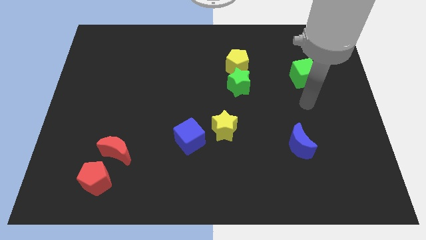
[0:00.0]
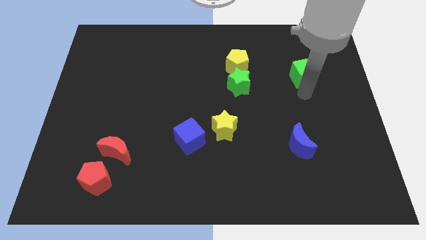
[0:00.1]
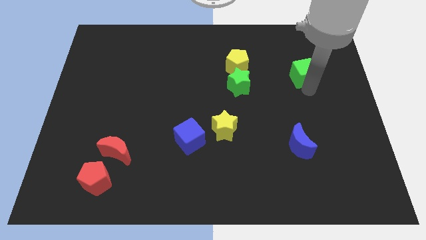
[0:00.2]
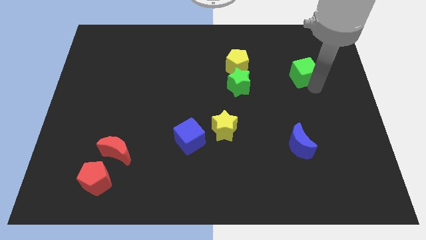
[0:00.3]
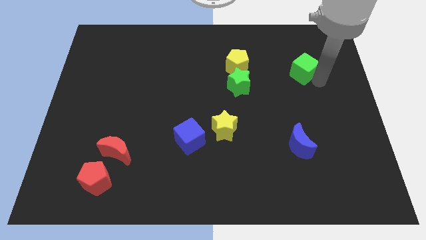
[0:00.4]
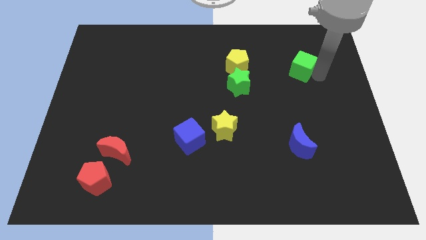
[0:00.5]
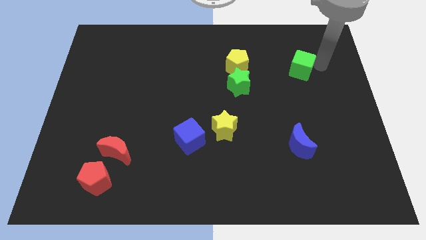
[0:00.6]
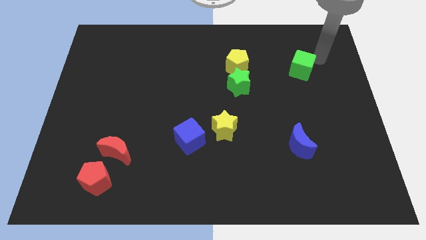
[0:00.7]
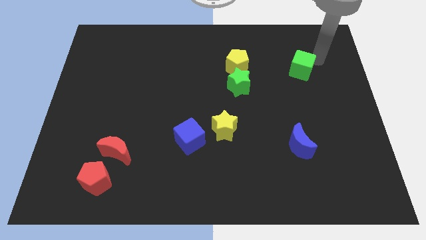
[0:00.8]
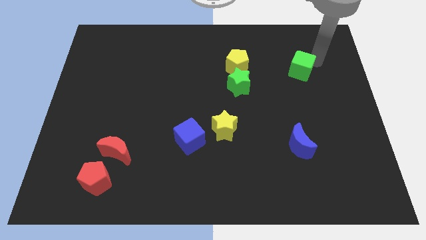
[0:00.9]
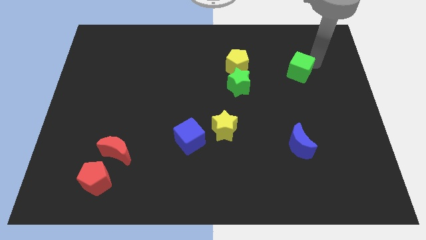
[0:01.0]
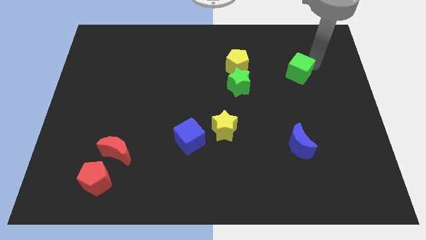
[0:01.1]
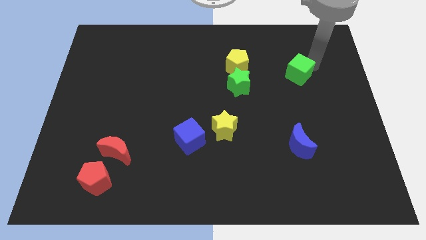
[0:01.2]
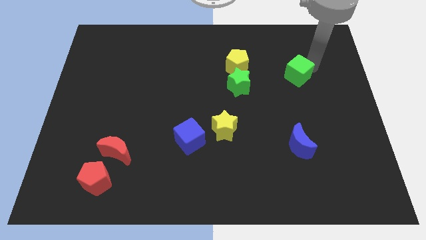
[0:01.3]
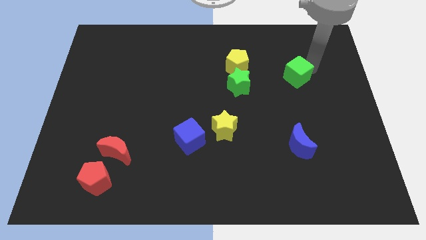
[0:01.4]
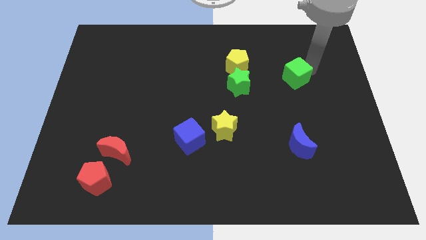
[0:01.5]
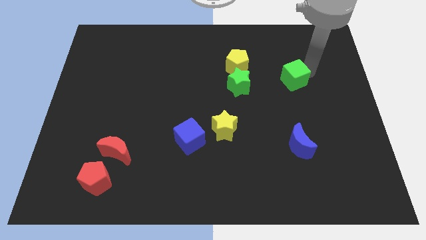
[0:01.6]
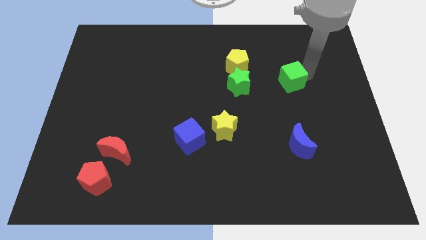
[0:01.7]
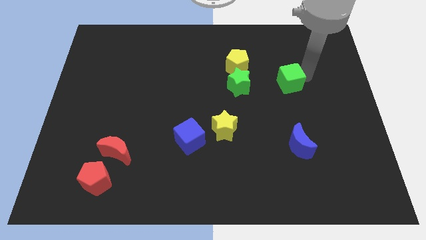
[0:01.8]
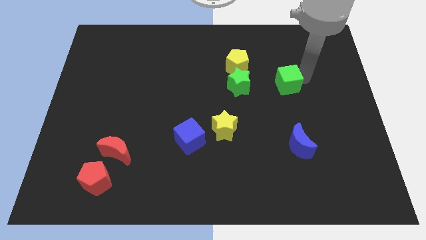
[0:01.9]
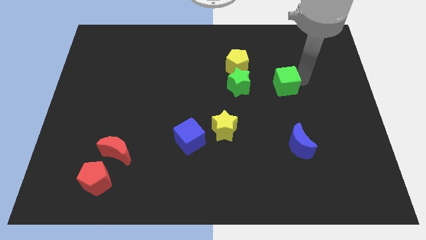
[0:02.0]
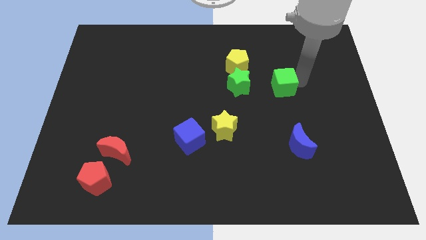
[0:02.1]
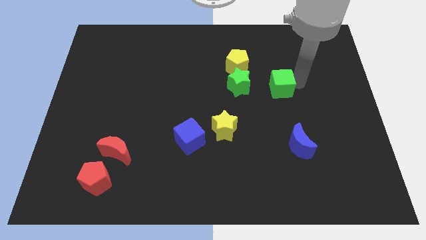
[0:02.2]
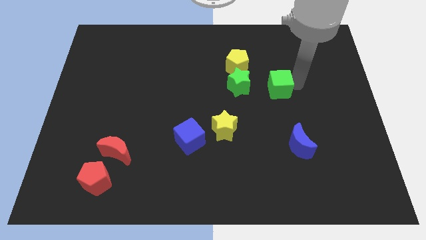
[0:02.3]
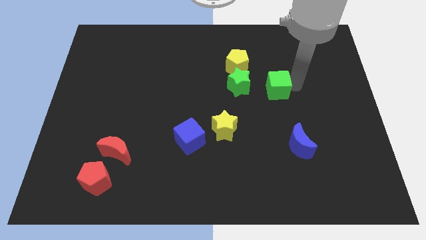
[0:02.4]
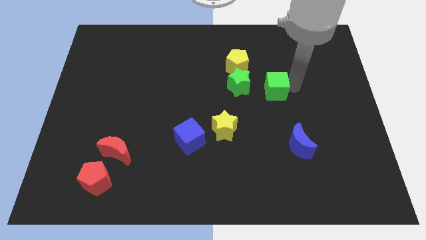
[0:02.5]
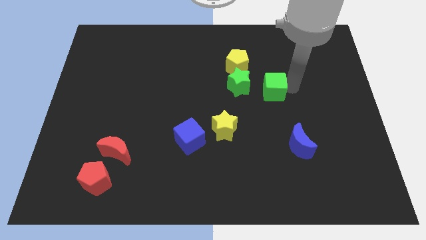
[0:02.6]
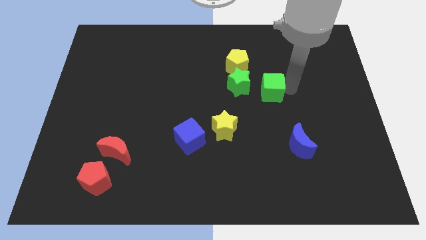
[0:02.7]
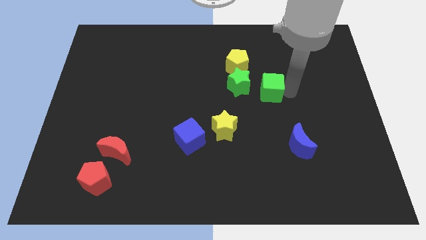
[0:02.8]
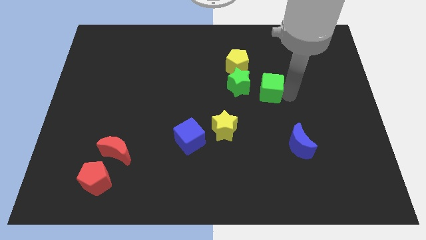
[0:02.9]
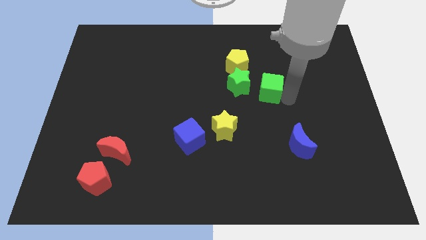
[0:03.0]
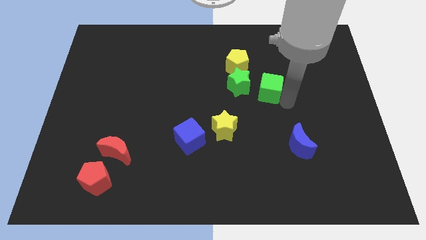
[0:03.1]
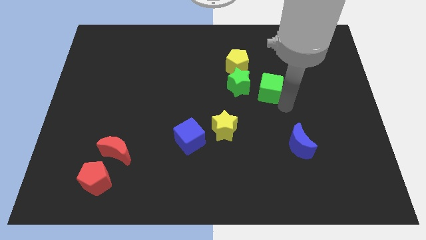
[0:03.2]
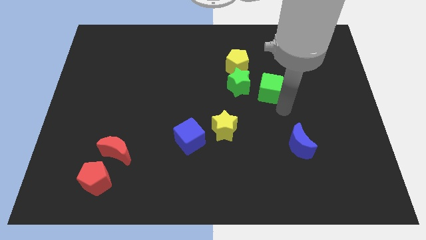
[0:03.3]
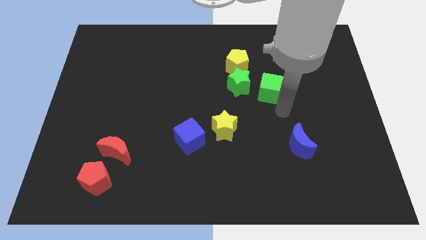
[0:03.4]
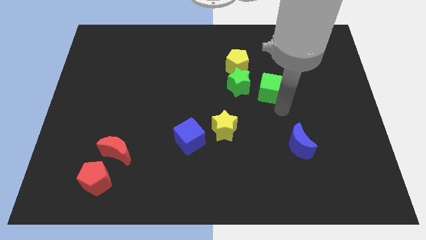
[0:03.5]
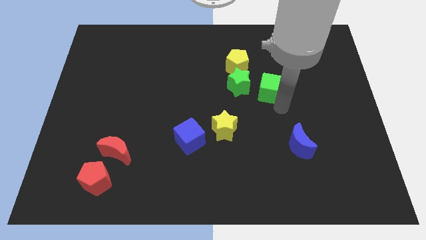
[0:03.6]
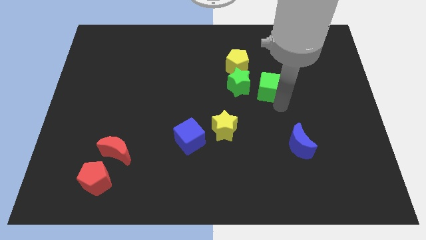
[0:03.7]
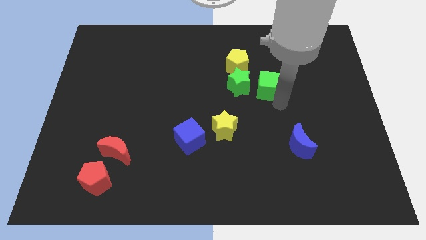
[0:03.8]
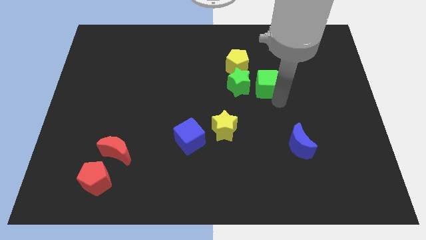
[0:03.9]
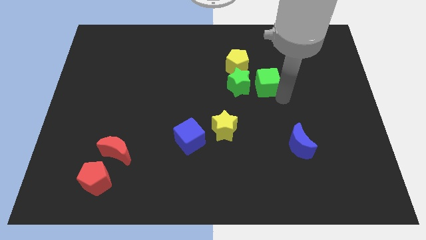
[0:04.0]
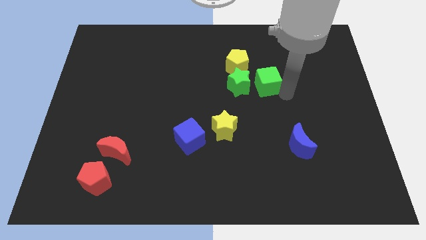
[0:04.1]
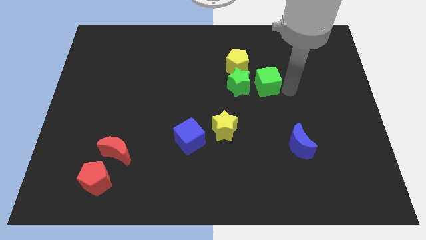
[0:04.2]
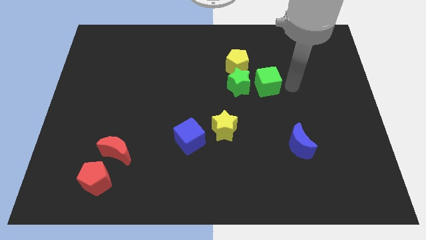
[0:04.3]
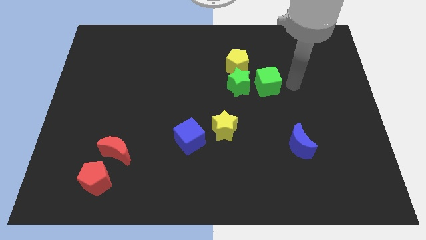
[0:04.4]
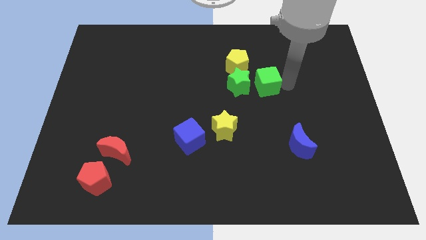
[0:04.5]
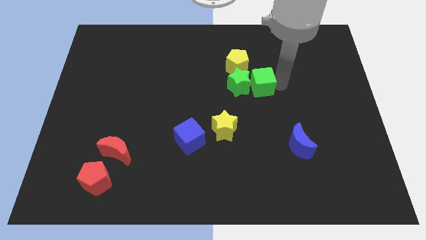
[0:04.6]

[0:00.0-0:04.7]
put the green cube close to the green star

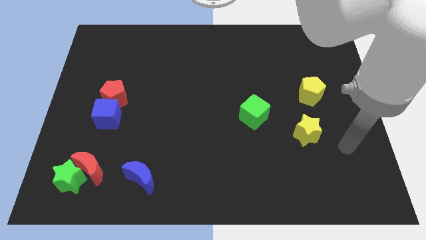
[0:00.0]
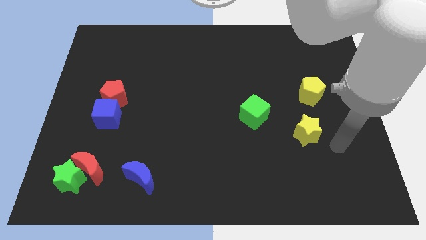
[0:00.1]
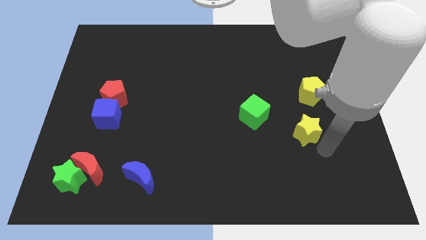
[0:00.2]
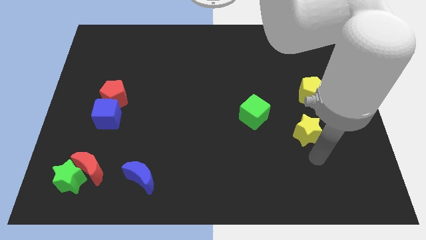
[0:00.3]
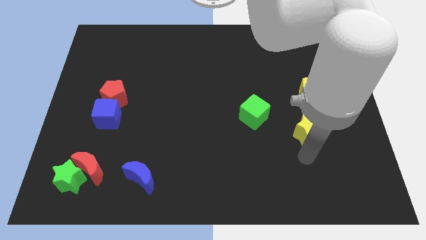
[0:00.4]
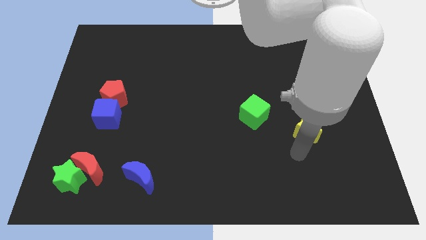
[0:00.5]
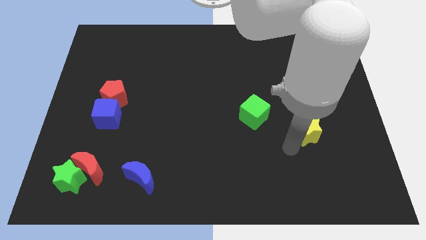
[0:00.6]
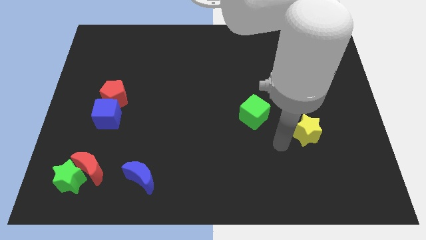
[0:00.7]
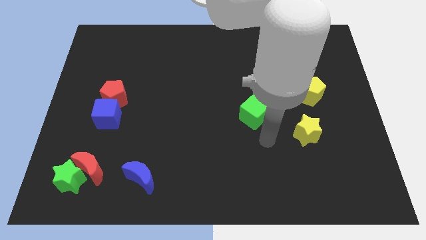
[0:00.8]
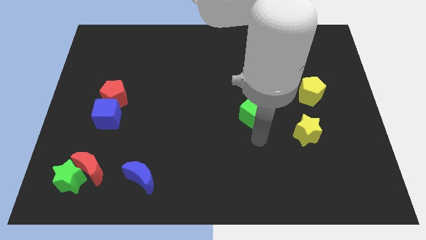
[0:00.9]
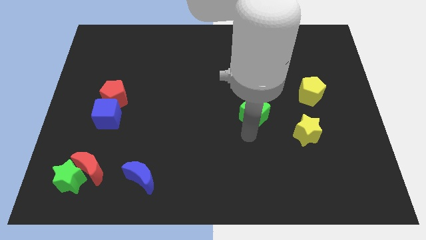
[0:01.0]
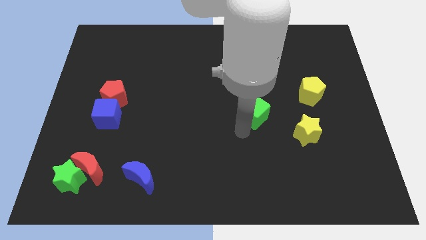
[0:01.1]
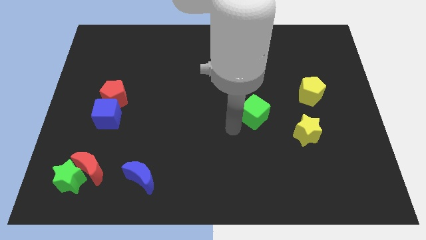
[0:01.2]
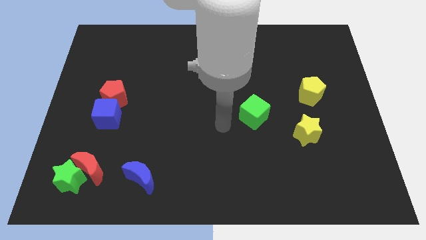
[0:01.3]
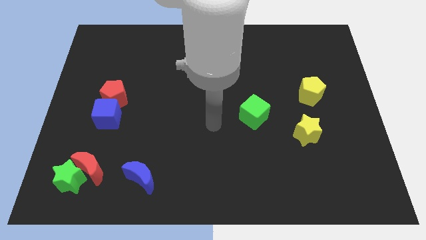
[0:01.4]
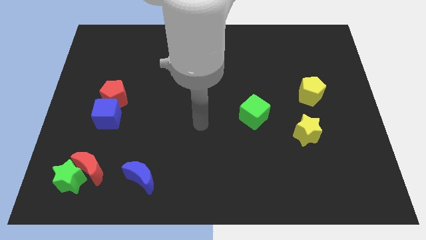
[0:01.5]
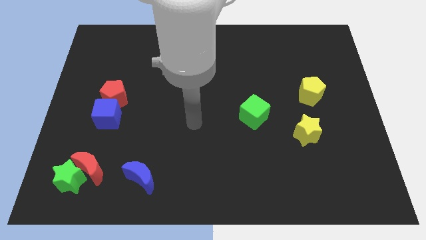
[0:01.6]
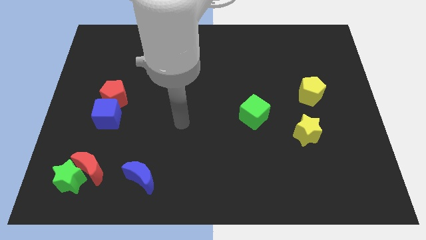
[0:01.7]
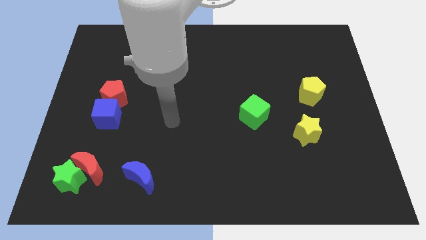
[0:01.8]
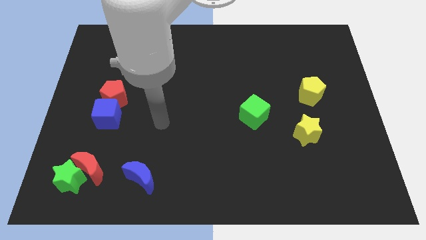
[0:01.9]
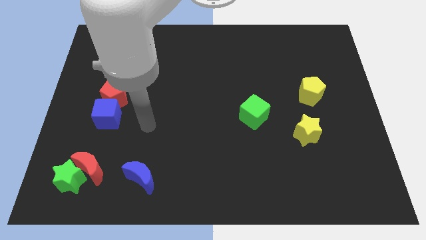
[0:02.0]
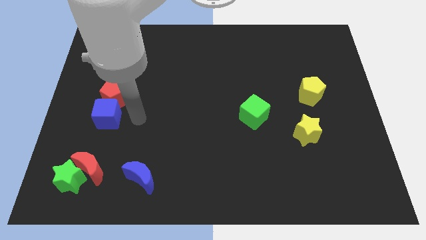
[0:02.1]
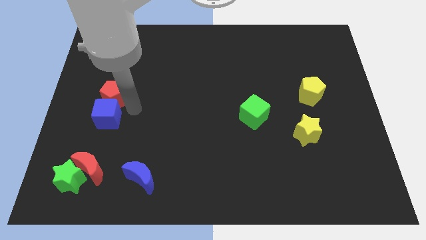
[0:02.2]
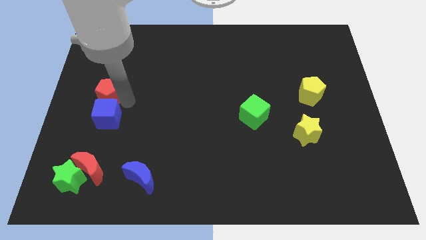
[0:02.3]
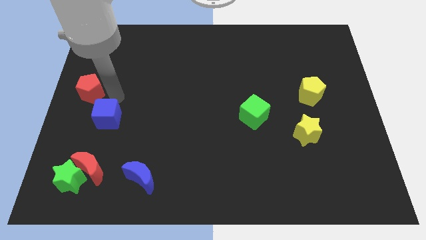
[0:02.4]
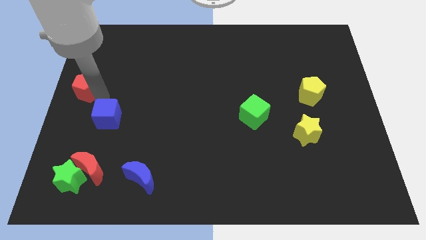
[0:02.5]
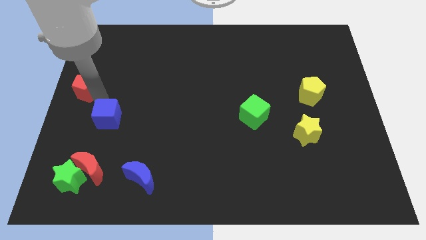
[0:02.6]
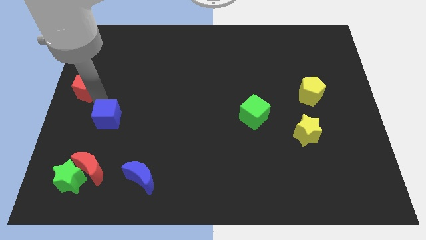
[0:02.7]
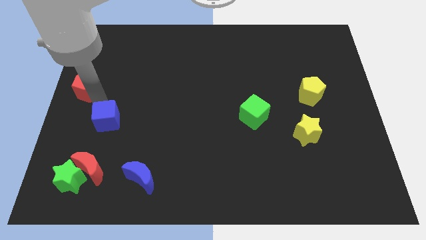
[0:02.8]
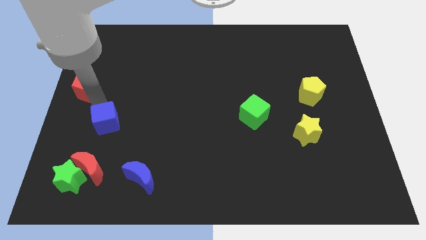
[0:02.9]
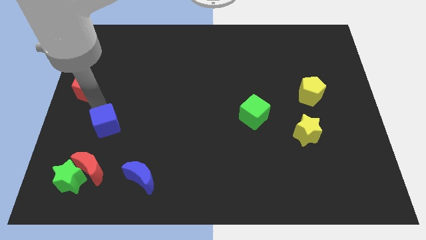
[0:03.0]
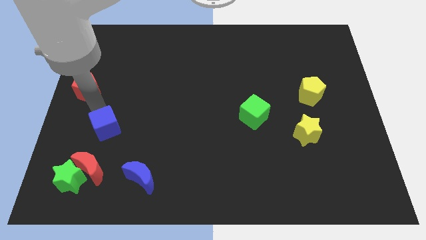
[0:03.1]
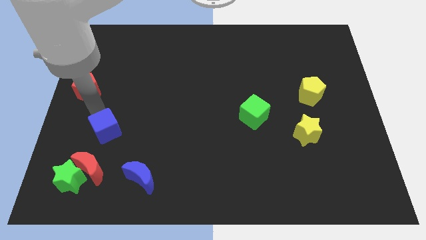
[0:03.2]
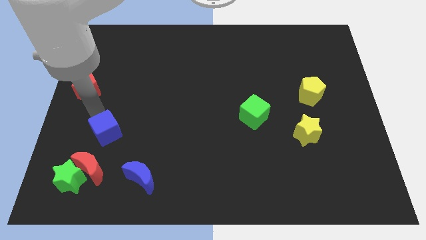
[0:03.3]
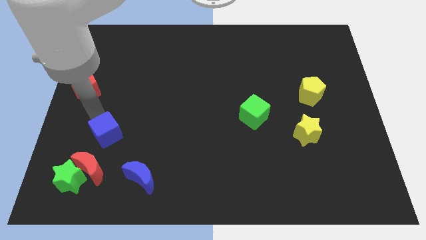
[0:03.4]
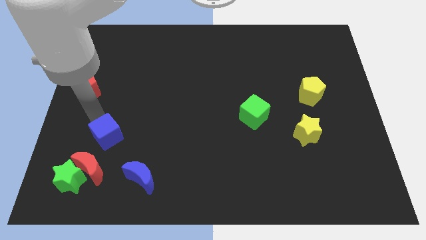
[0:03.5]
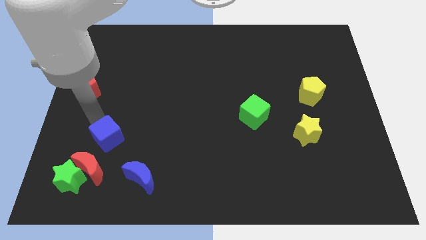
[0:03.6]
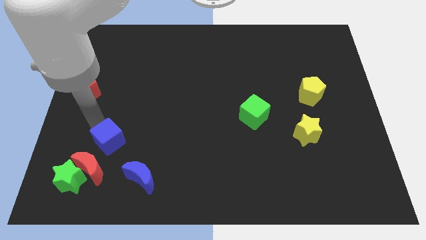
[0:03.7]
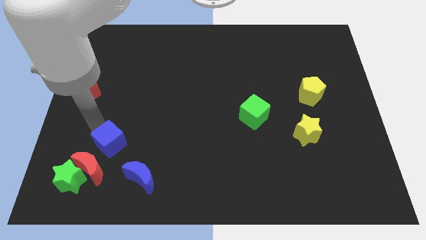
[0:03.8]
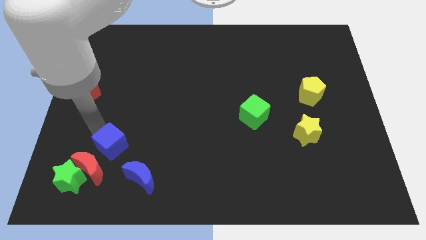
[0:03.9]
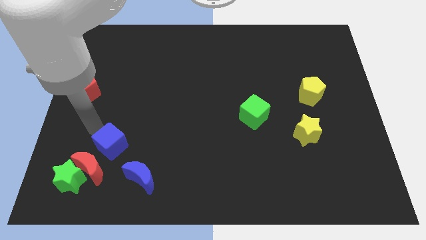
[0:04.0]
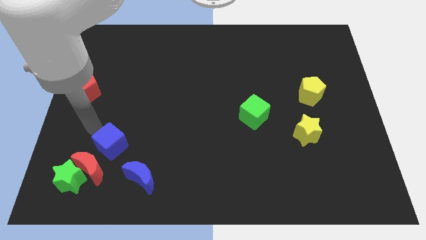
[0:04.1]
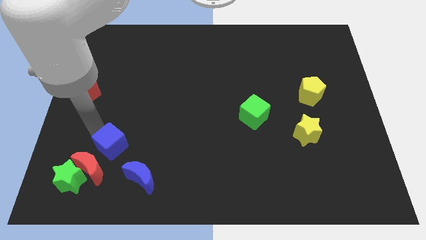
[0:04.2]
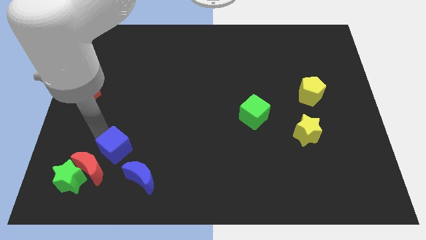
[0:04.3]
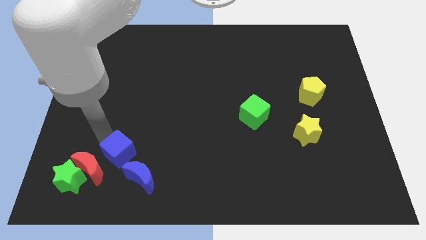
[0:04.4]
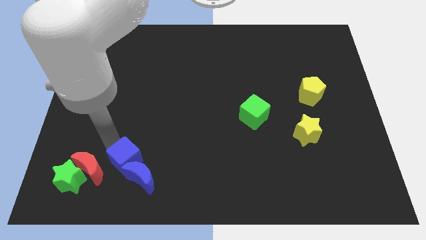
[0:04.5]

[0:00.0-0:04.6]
slide the blue cube to the blue moon
